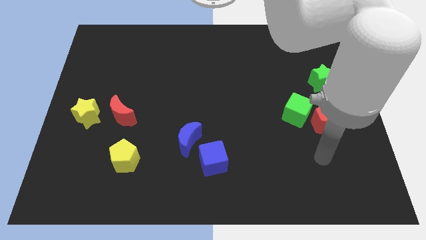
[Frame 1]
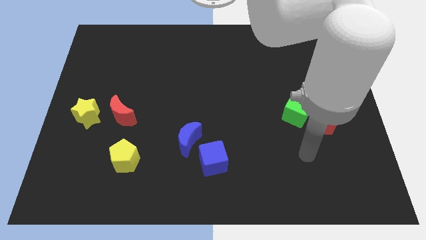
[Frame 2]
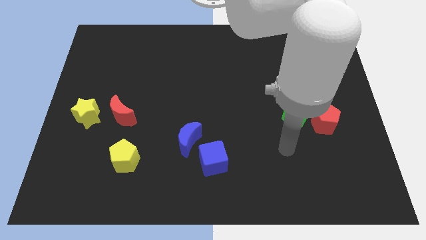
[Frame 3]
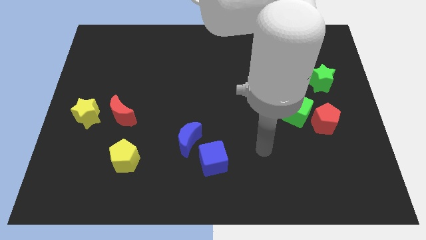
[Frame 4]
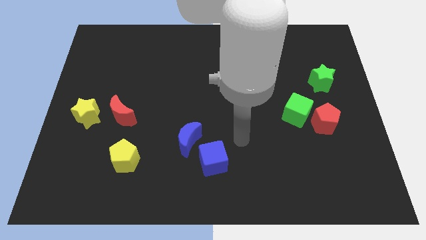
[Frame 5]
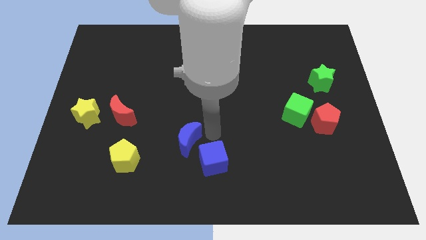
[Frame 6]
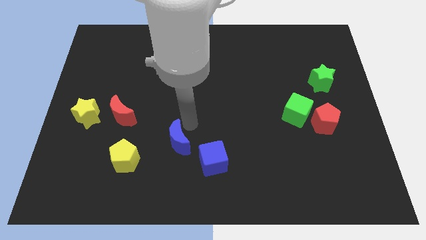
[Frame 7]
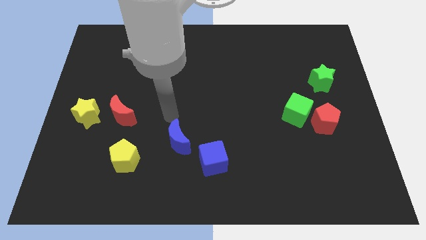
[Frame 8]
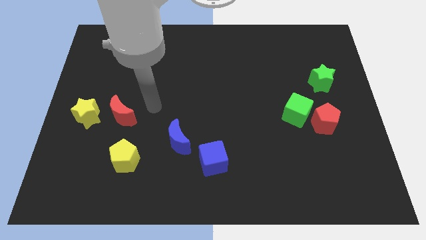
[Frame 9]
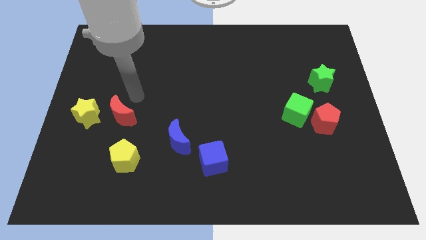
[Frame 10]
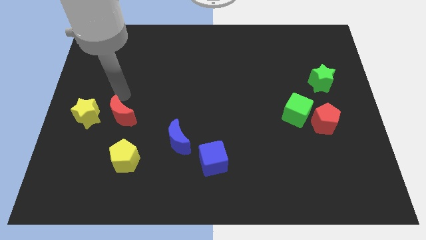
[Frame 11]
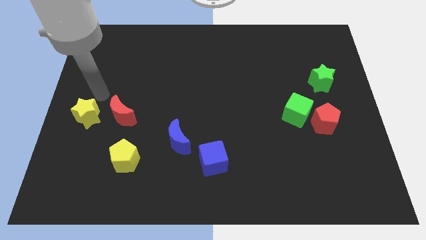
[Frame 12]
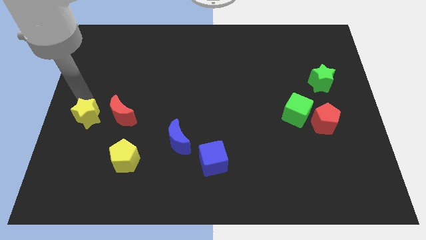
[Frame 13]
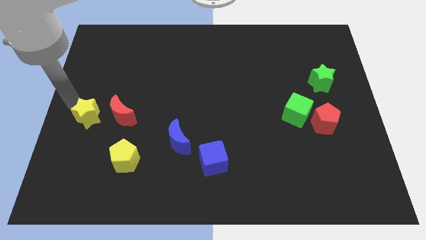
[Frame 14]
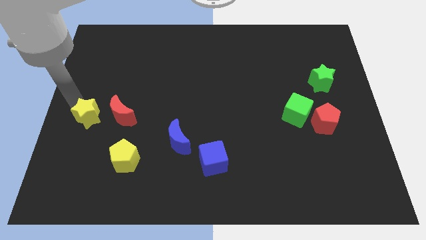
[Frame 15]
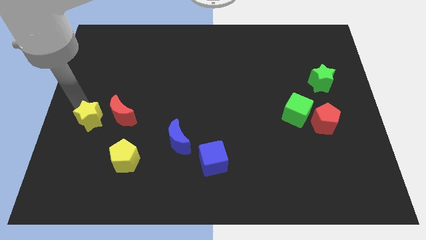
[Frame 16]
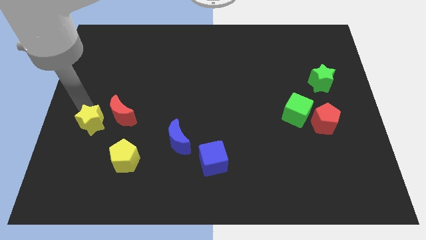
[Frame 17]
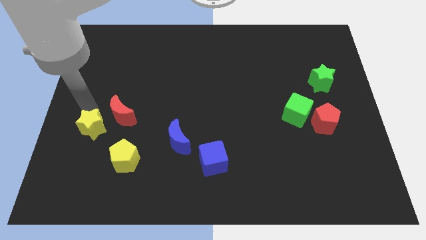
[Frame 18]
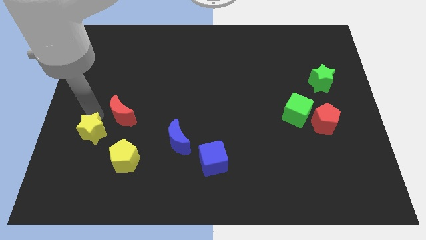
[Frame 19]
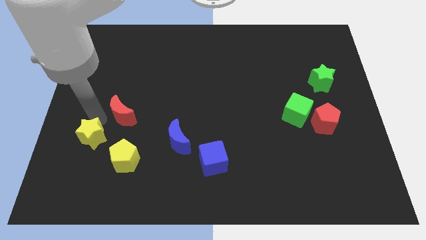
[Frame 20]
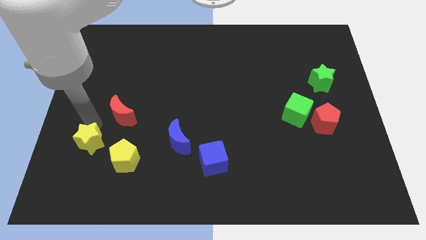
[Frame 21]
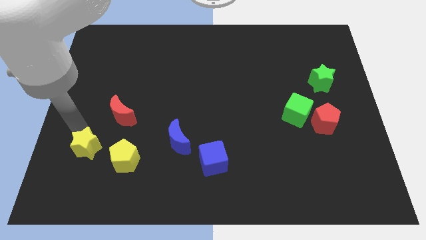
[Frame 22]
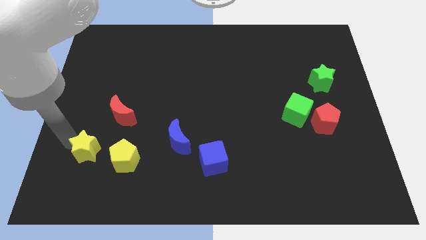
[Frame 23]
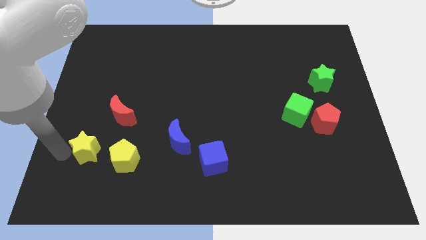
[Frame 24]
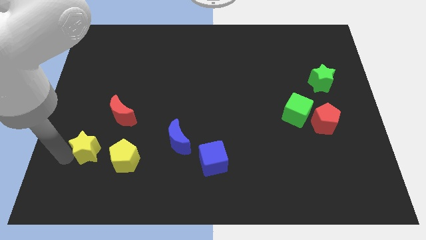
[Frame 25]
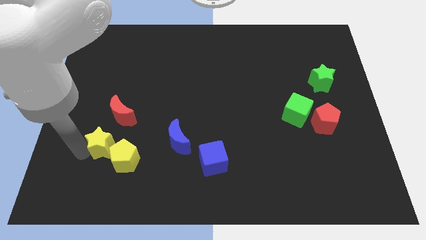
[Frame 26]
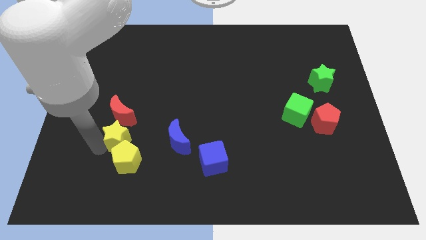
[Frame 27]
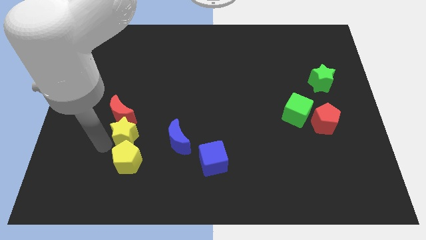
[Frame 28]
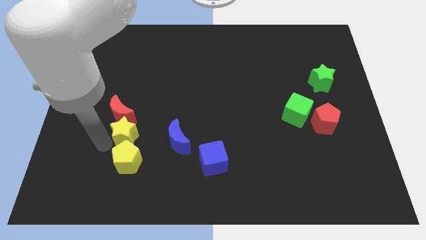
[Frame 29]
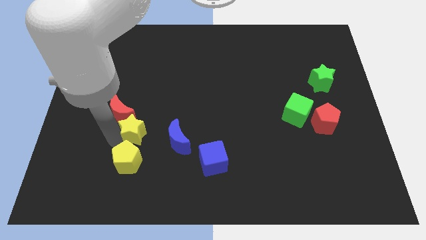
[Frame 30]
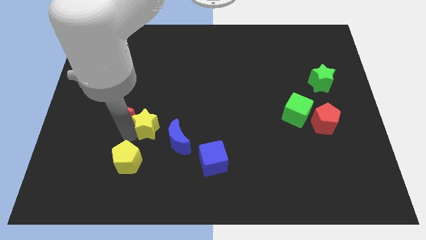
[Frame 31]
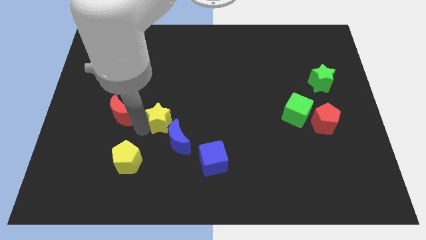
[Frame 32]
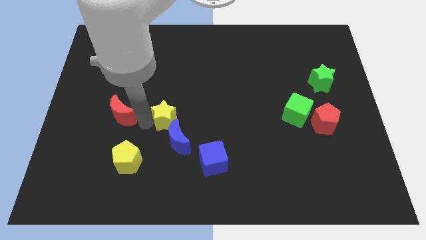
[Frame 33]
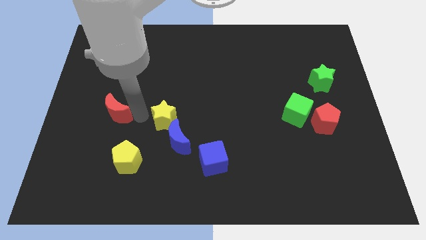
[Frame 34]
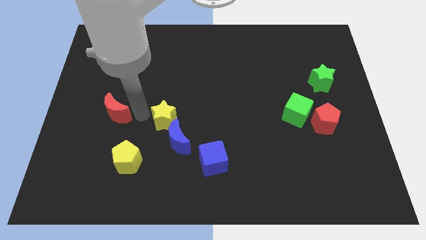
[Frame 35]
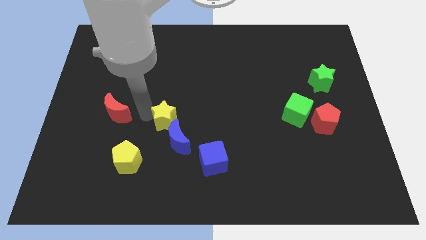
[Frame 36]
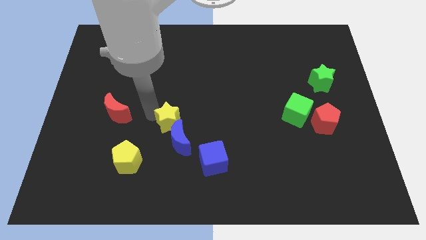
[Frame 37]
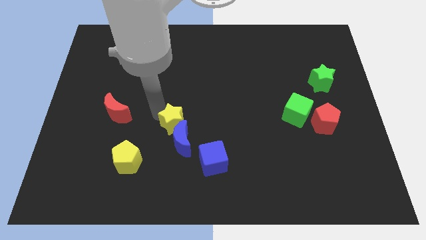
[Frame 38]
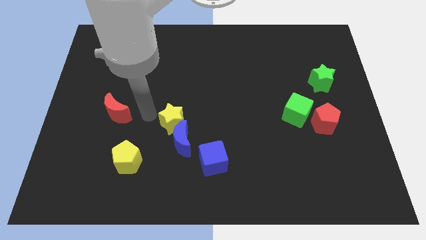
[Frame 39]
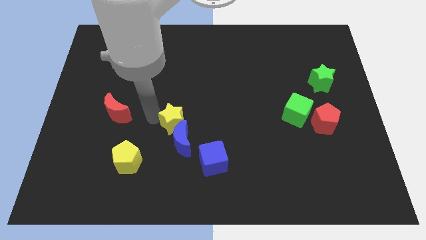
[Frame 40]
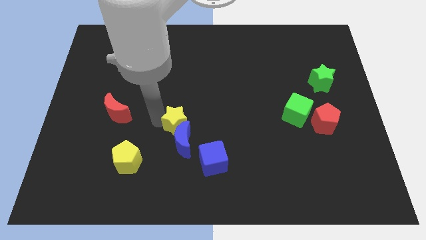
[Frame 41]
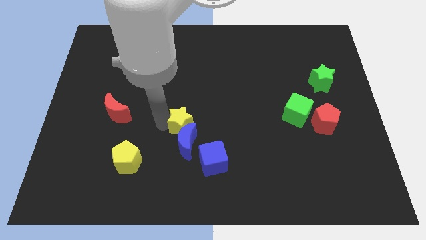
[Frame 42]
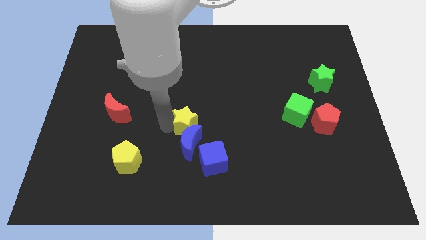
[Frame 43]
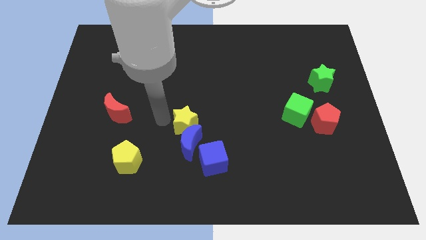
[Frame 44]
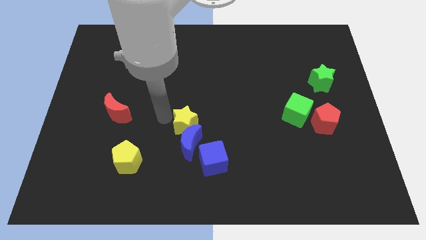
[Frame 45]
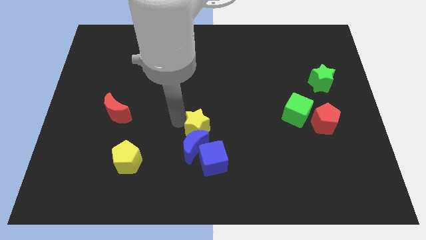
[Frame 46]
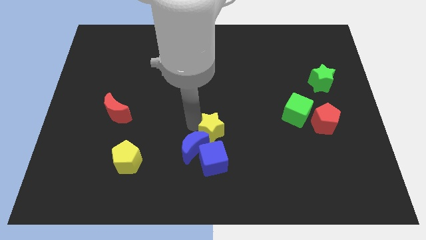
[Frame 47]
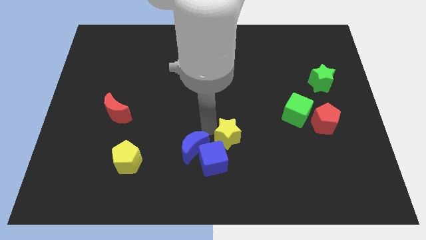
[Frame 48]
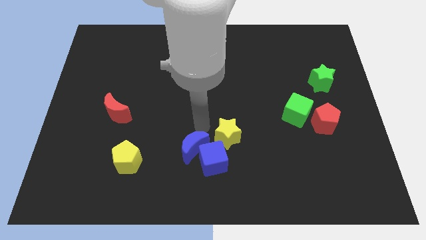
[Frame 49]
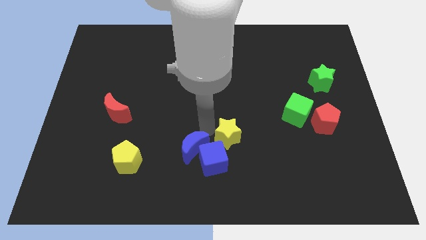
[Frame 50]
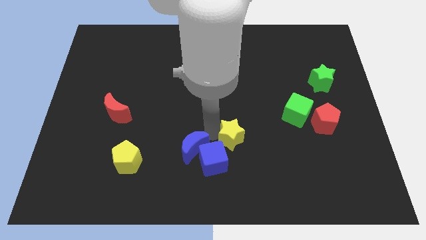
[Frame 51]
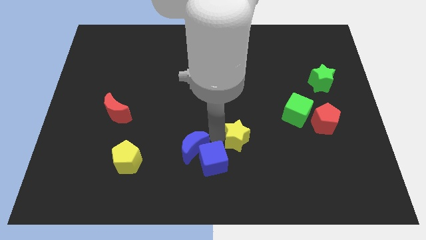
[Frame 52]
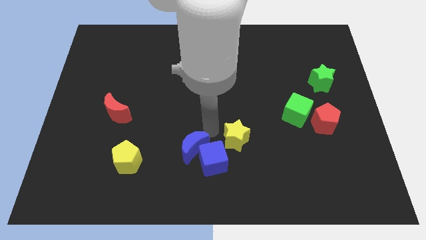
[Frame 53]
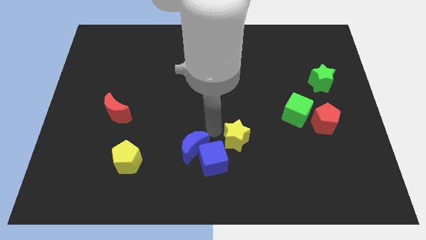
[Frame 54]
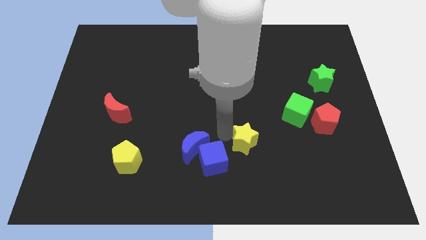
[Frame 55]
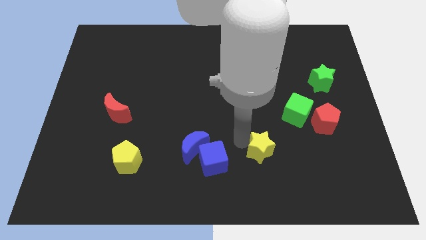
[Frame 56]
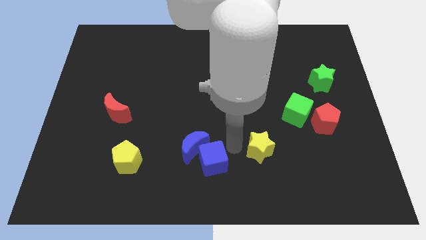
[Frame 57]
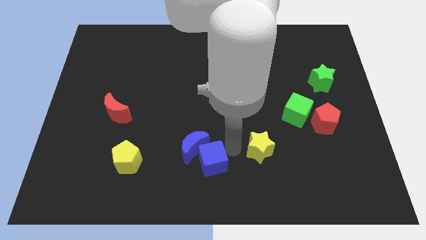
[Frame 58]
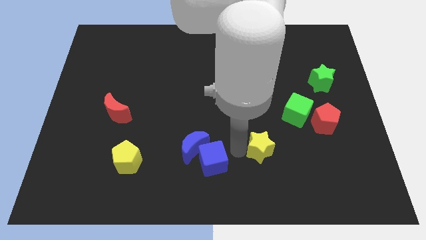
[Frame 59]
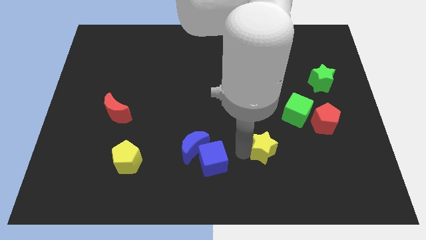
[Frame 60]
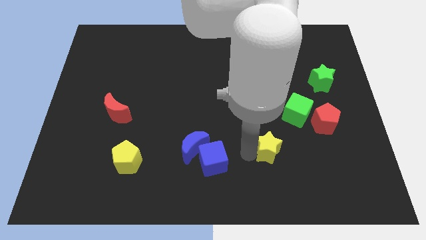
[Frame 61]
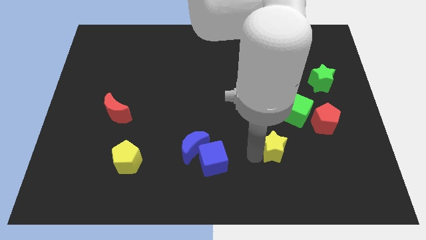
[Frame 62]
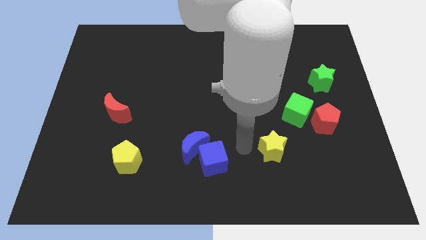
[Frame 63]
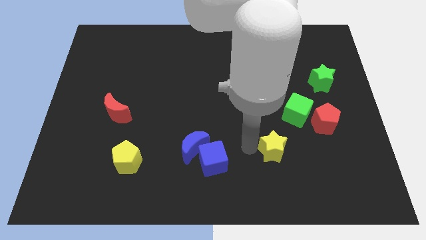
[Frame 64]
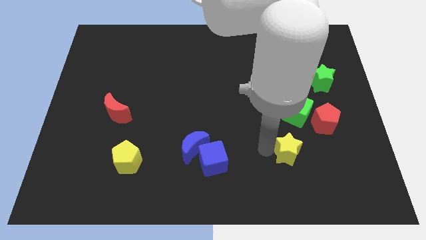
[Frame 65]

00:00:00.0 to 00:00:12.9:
slide the yellow star below the green cube

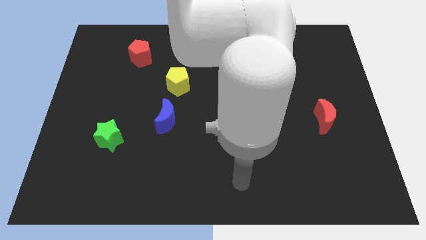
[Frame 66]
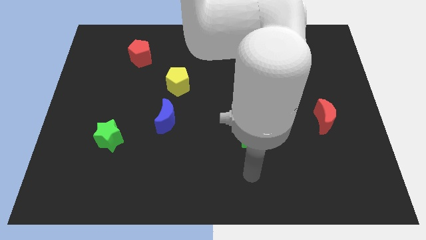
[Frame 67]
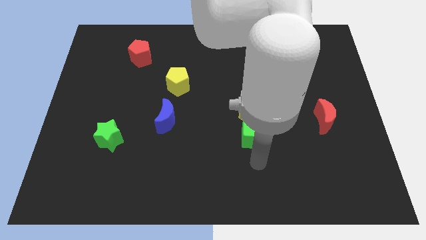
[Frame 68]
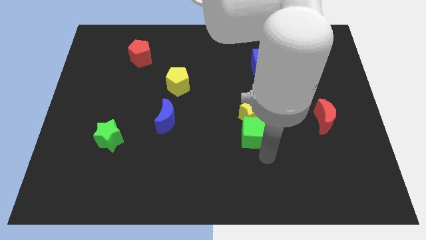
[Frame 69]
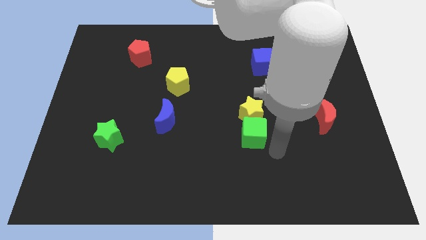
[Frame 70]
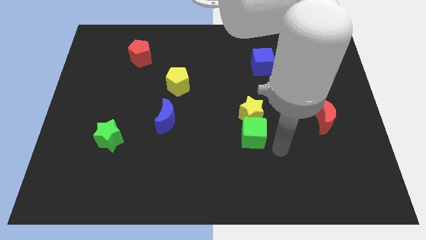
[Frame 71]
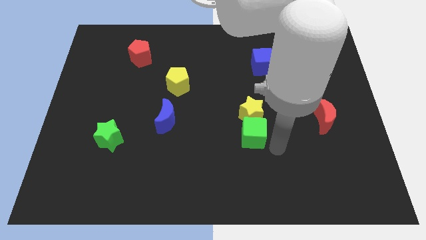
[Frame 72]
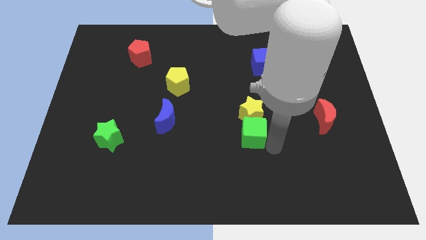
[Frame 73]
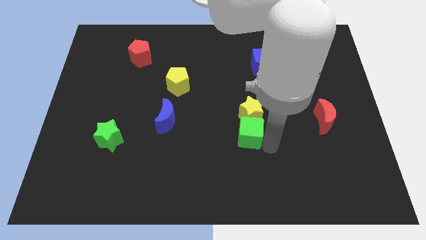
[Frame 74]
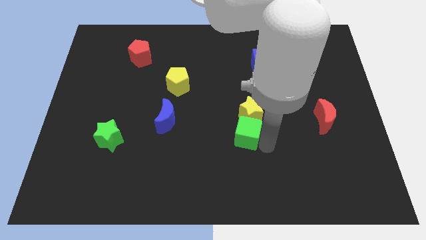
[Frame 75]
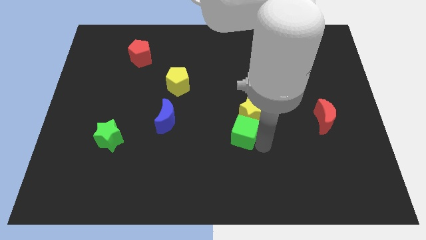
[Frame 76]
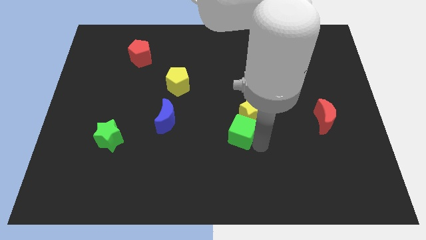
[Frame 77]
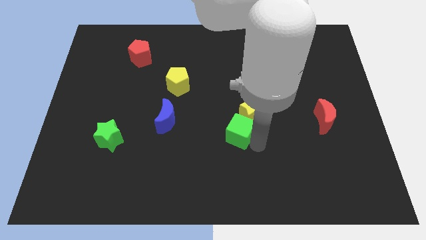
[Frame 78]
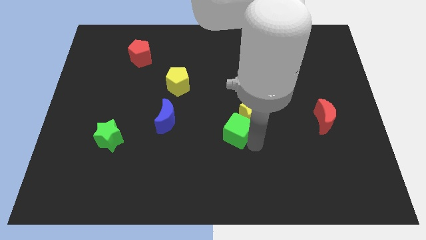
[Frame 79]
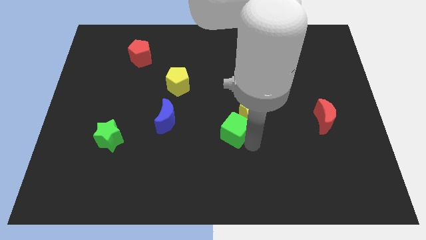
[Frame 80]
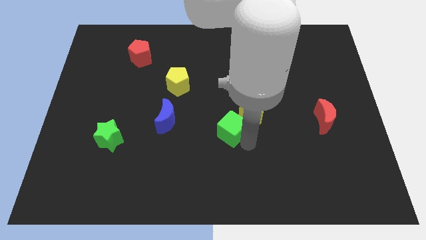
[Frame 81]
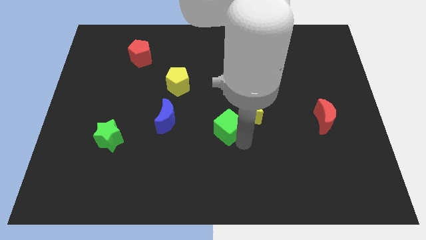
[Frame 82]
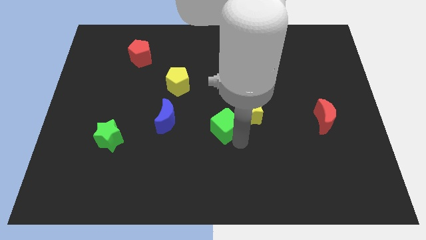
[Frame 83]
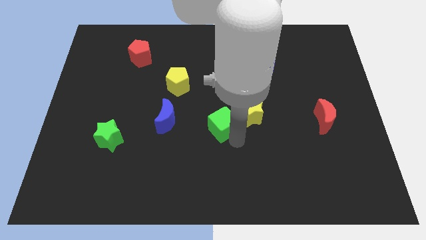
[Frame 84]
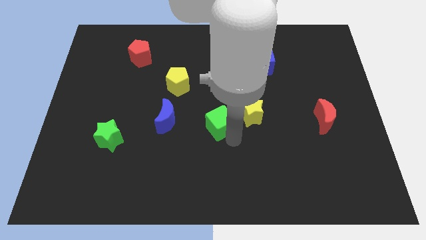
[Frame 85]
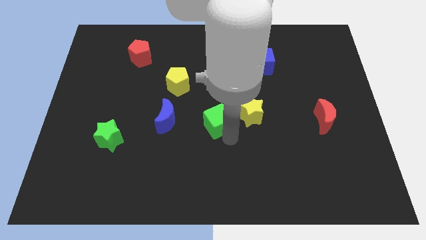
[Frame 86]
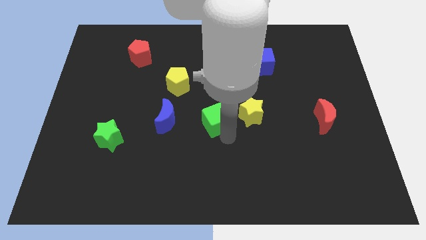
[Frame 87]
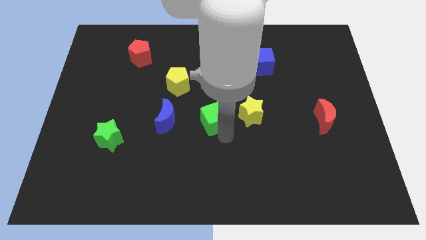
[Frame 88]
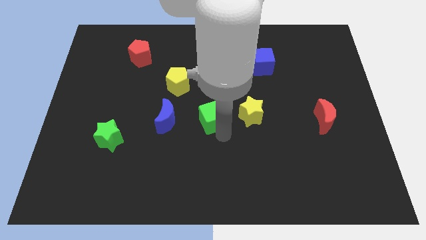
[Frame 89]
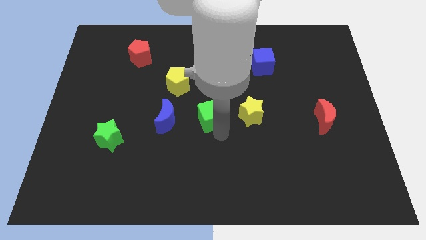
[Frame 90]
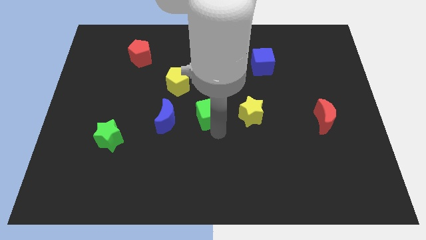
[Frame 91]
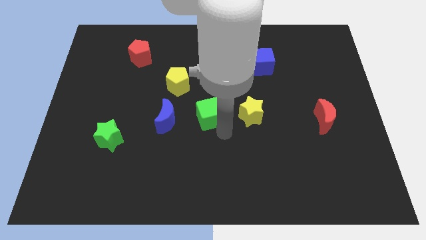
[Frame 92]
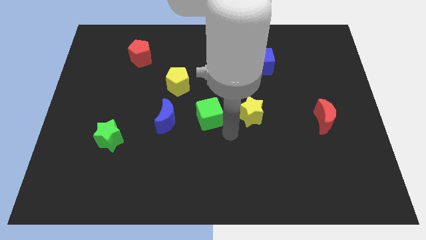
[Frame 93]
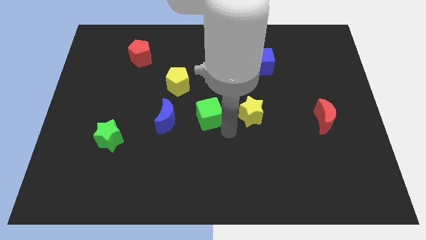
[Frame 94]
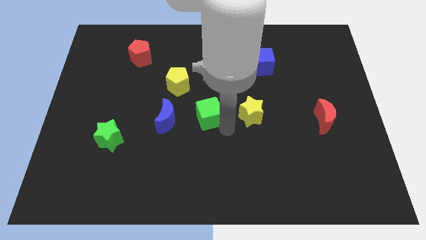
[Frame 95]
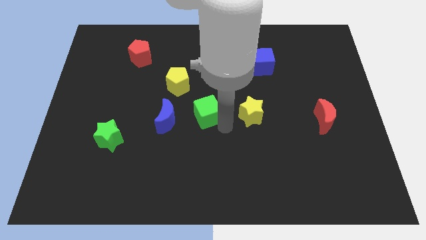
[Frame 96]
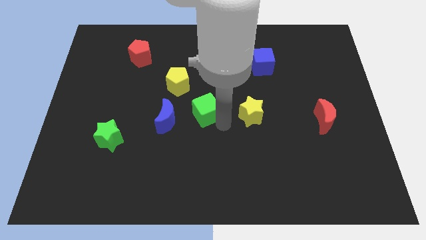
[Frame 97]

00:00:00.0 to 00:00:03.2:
put the green cube to the top right of the blue moon
